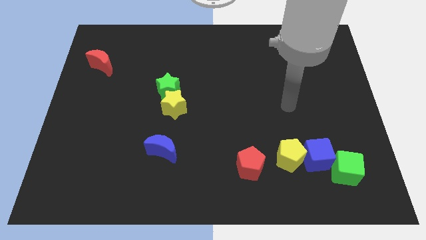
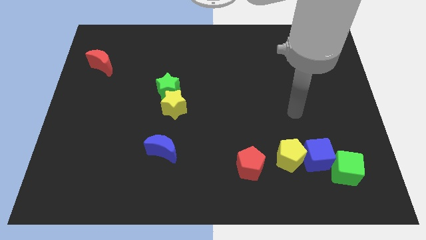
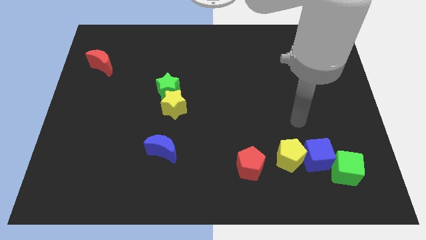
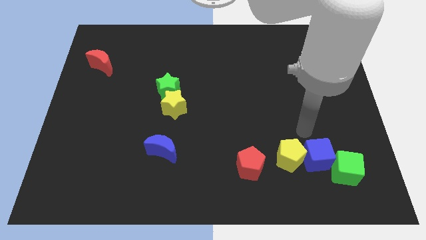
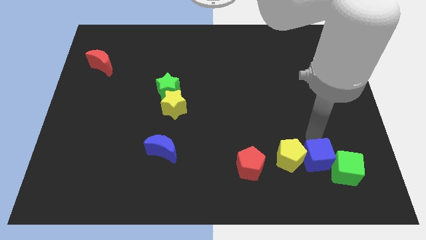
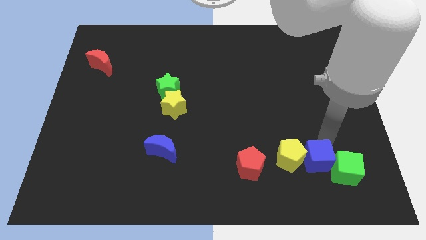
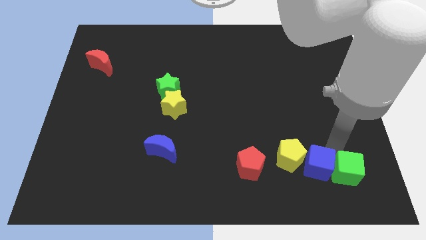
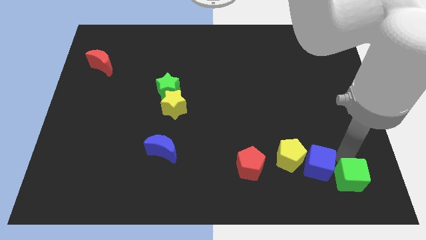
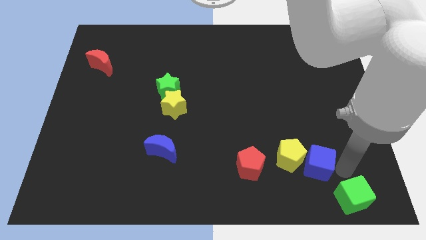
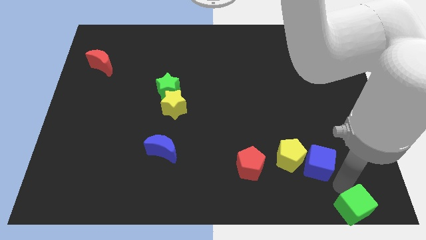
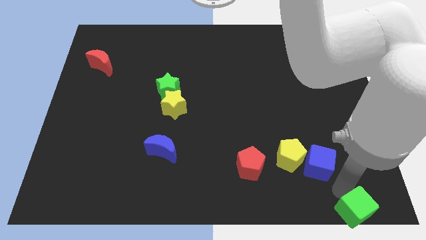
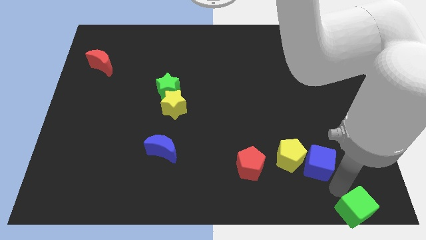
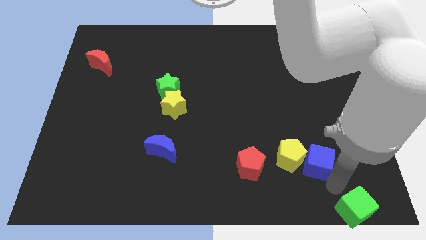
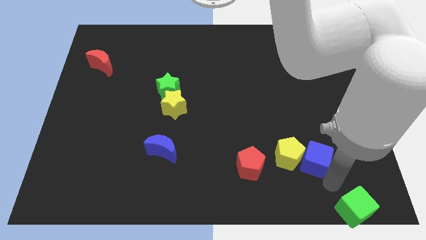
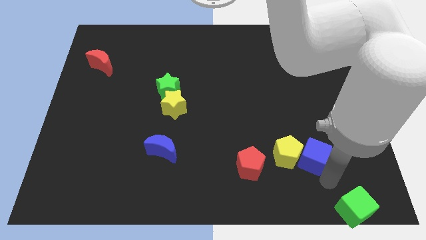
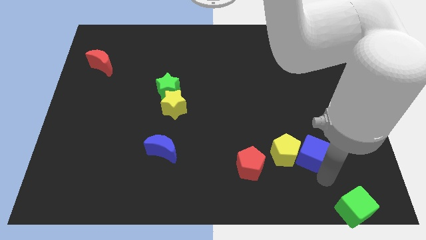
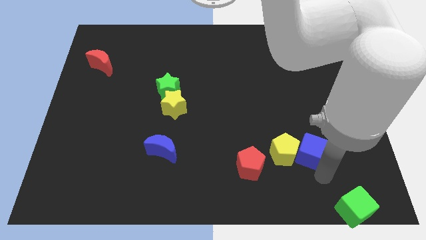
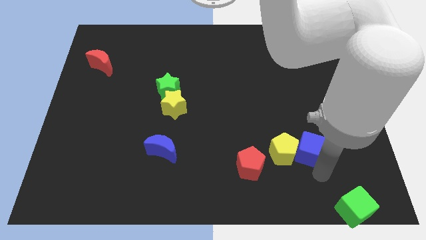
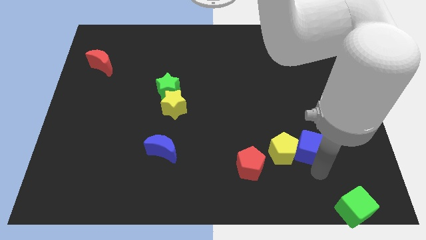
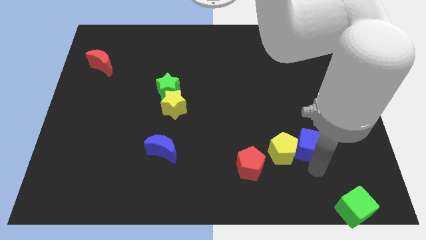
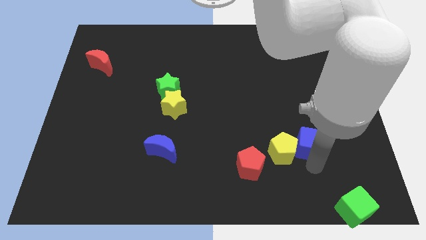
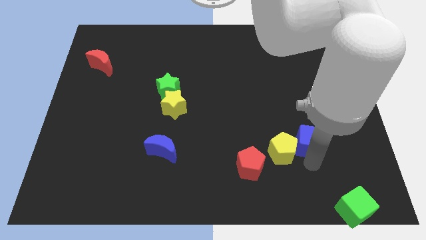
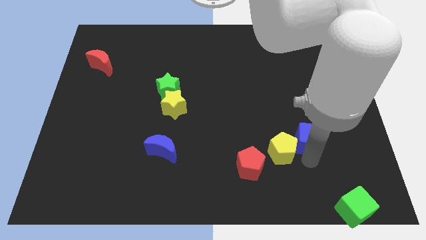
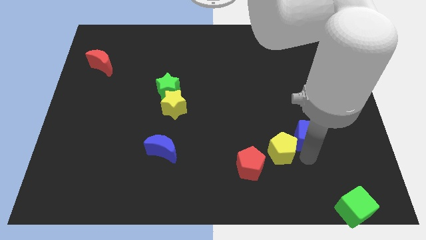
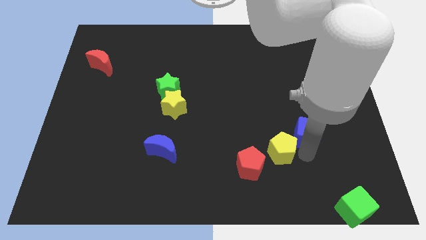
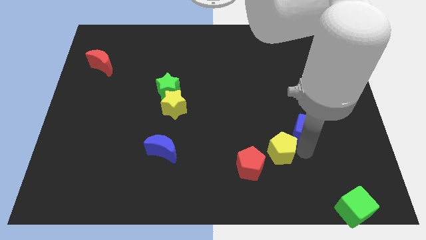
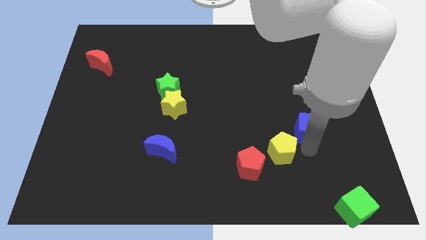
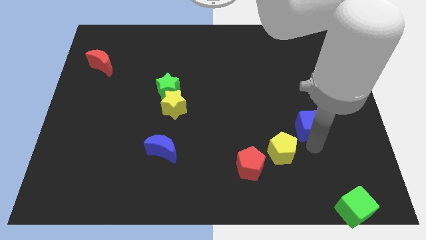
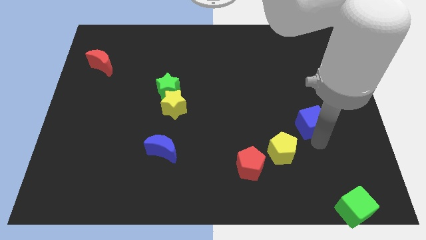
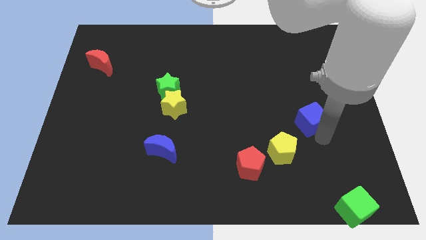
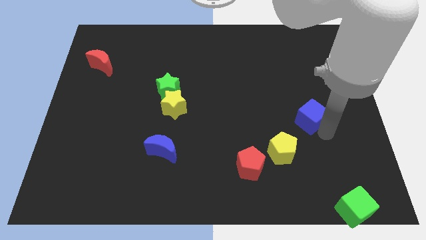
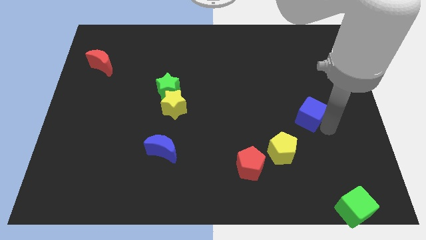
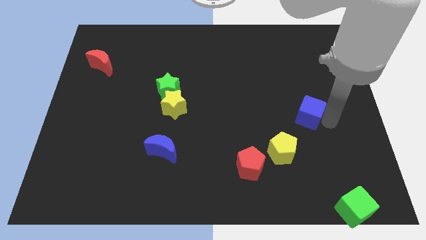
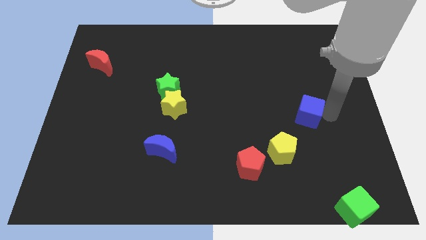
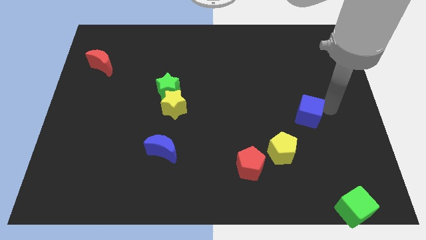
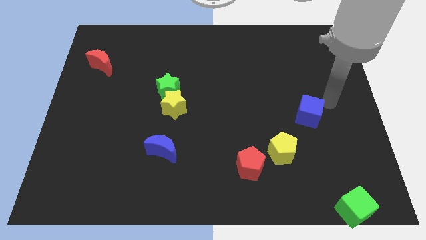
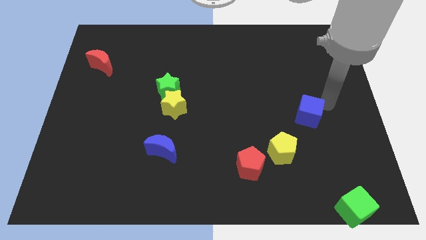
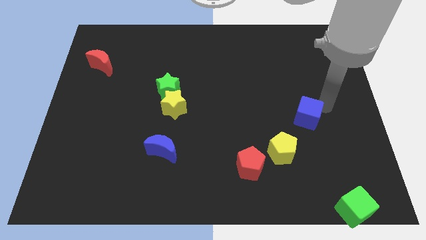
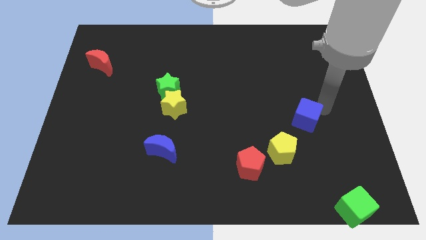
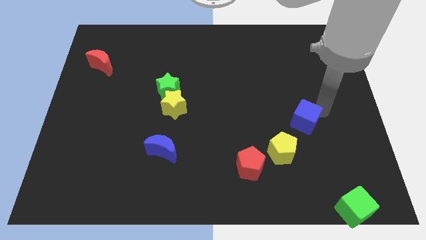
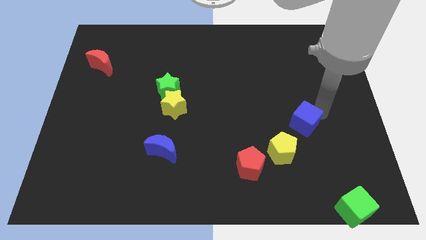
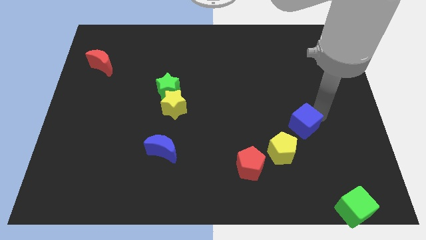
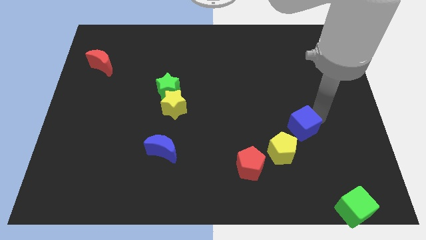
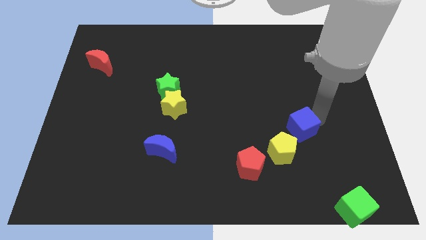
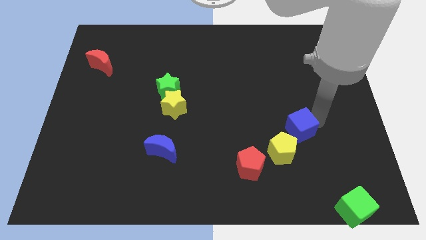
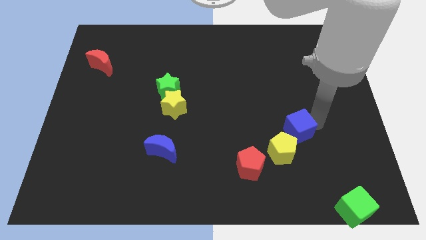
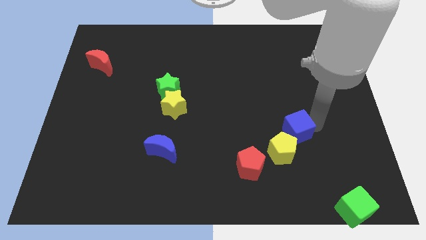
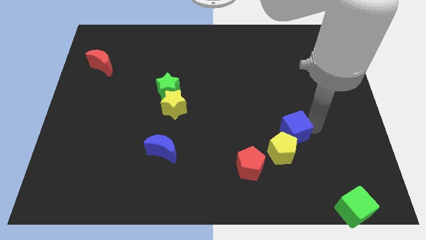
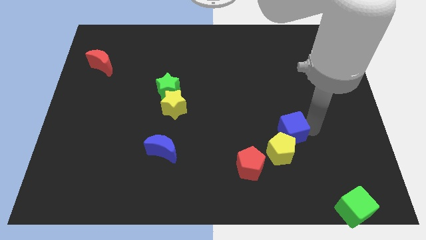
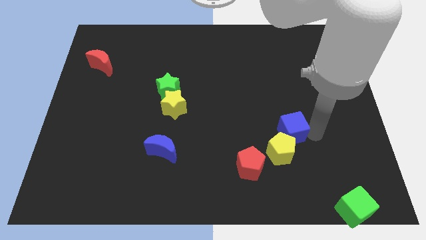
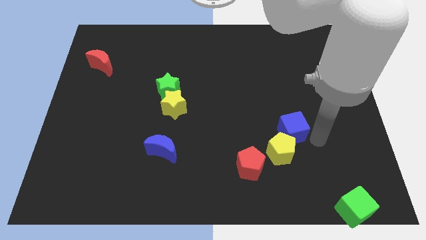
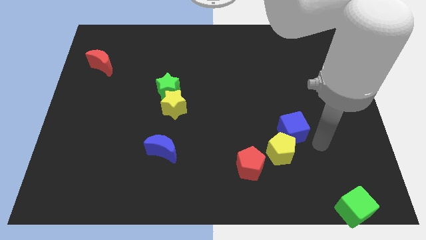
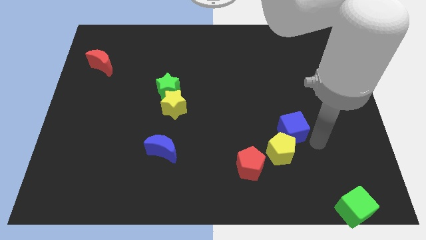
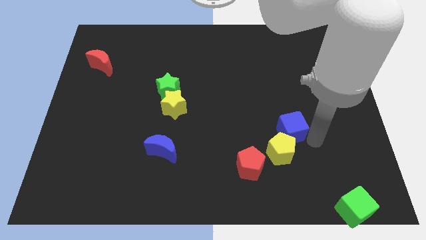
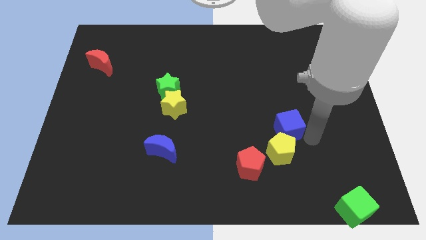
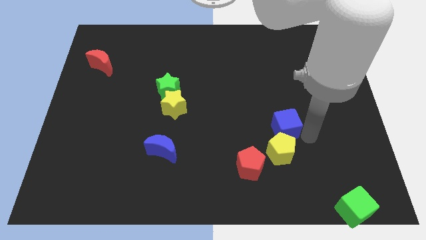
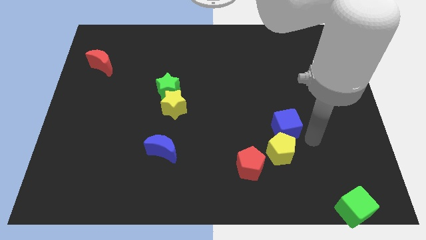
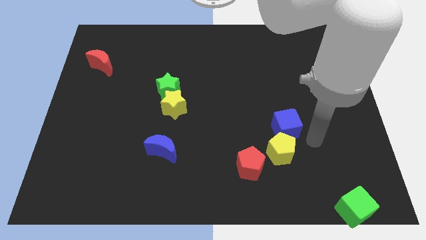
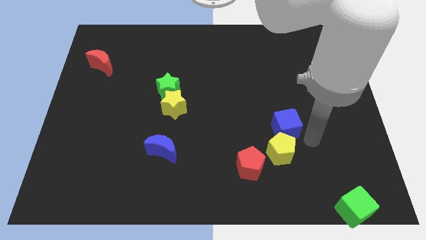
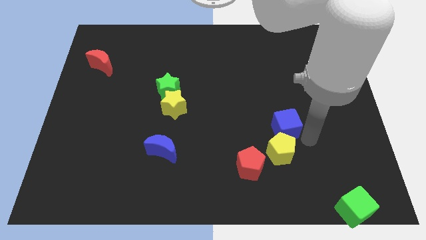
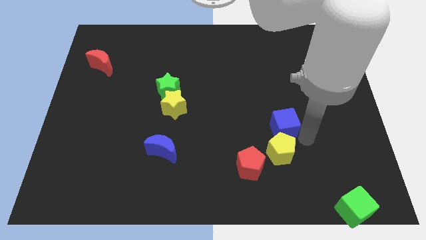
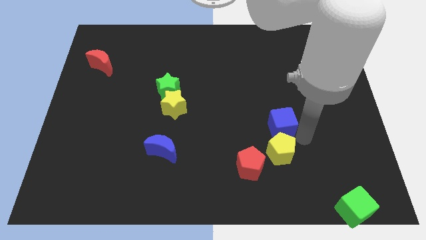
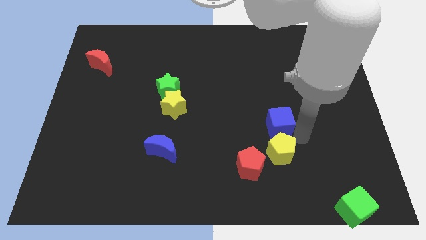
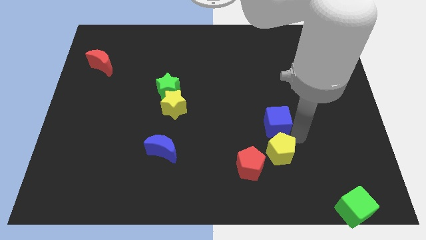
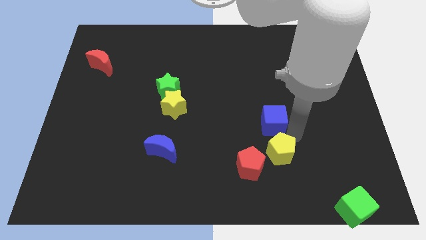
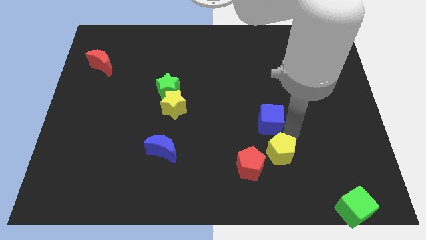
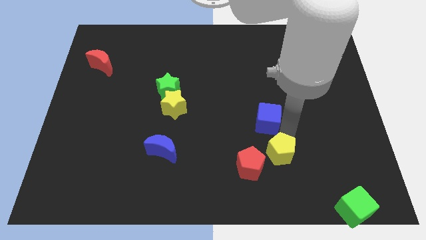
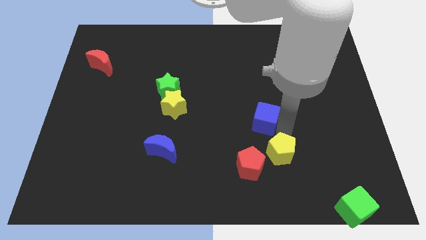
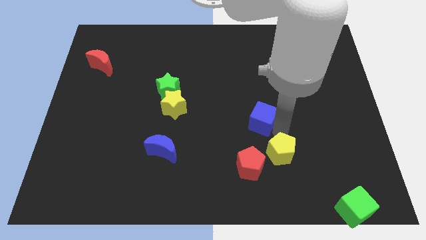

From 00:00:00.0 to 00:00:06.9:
push the blue cube to the center
